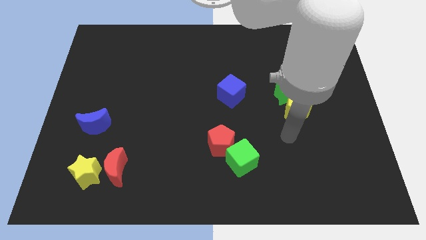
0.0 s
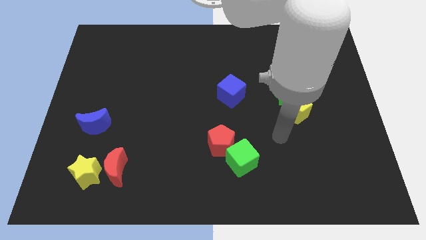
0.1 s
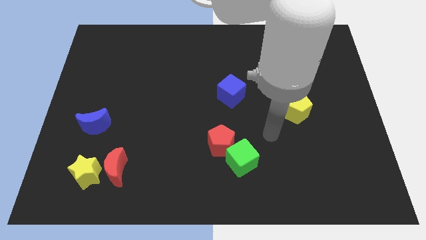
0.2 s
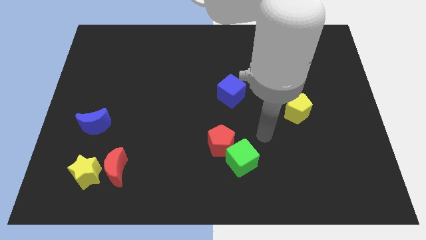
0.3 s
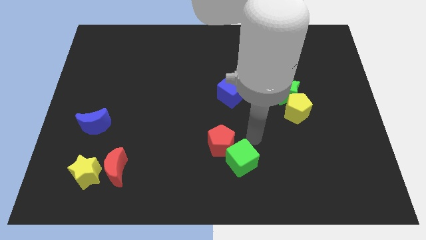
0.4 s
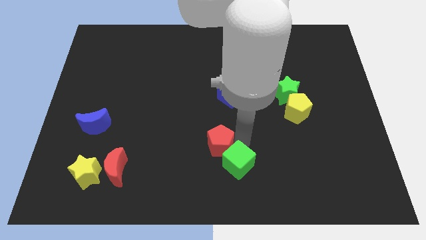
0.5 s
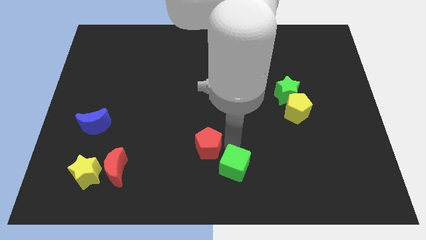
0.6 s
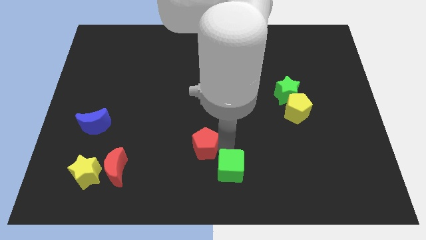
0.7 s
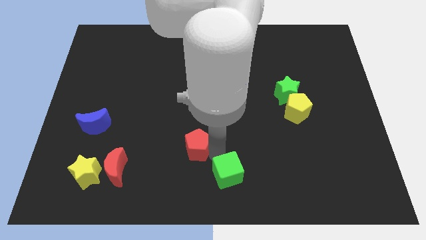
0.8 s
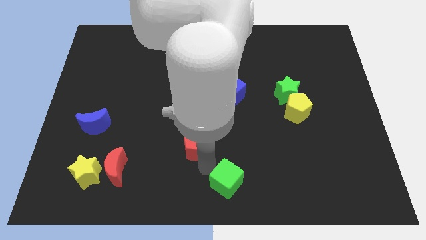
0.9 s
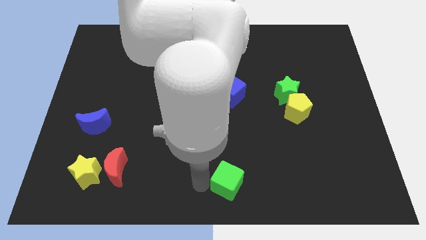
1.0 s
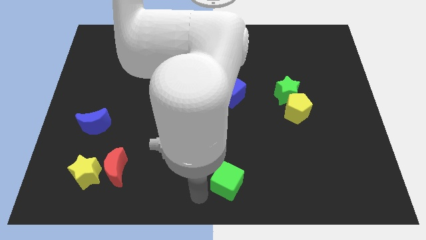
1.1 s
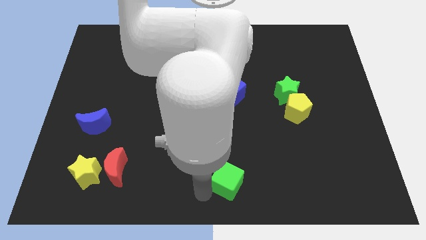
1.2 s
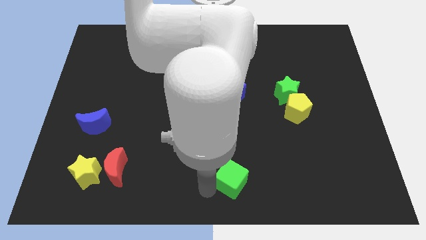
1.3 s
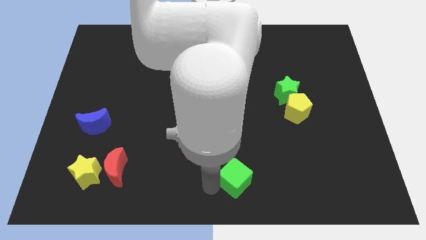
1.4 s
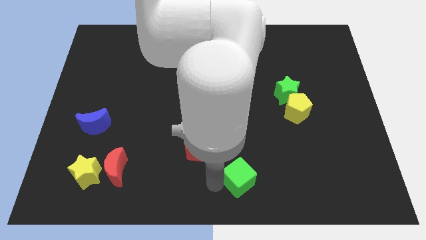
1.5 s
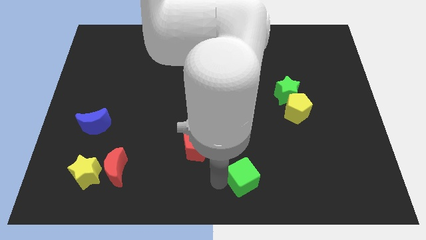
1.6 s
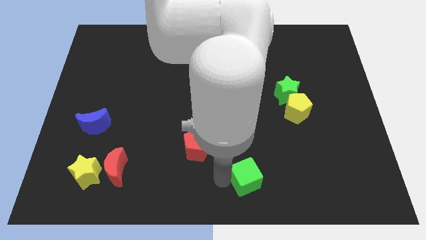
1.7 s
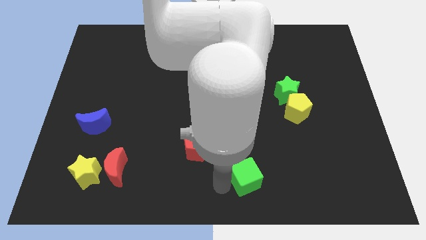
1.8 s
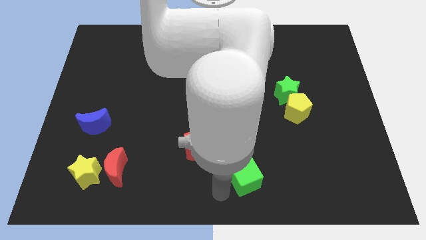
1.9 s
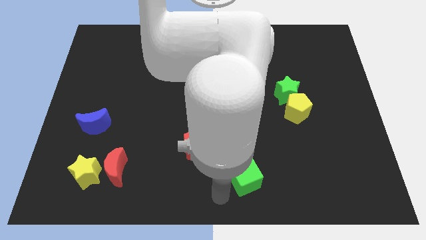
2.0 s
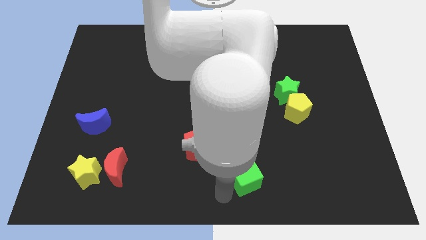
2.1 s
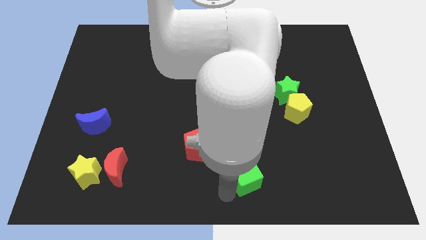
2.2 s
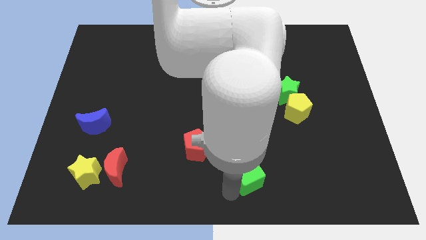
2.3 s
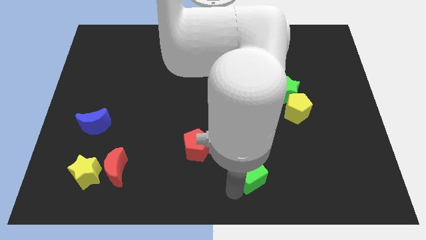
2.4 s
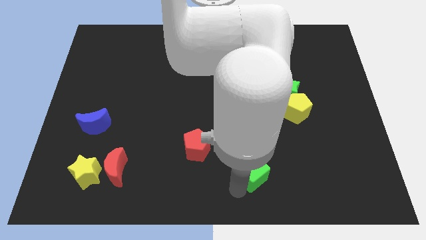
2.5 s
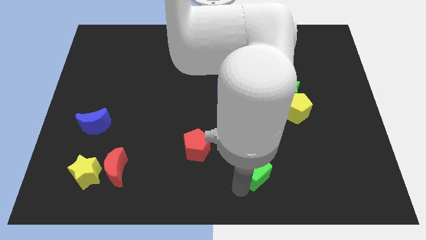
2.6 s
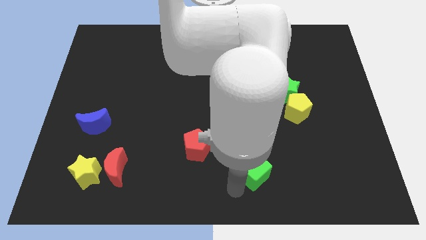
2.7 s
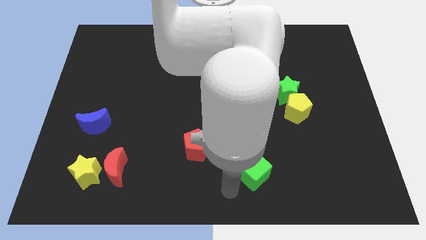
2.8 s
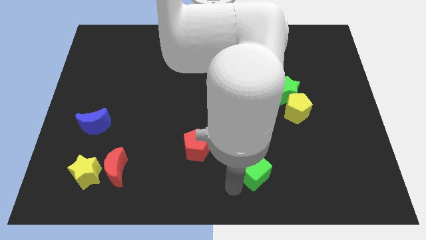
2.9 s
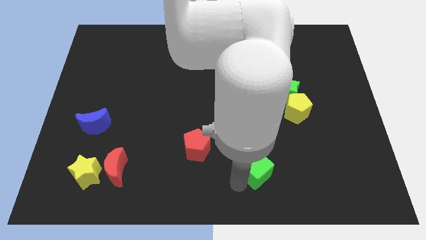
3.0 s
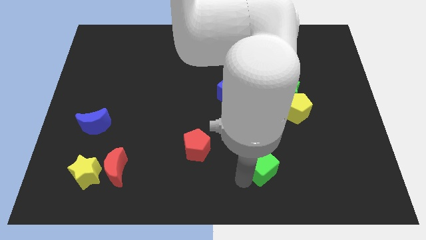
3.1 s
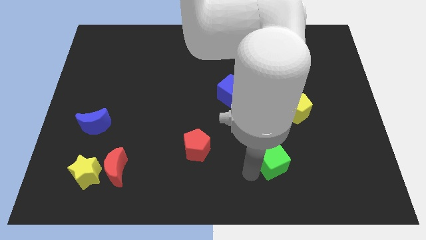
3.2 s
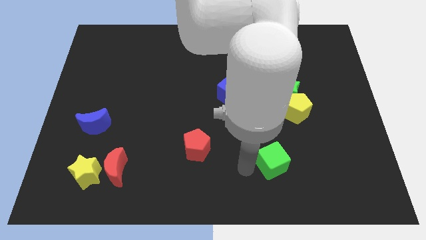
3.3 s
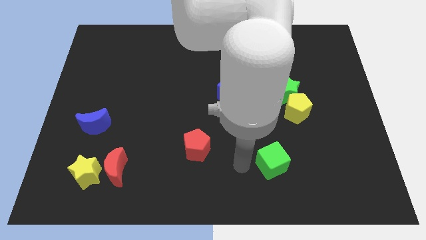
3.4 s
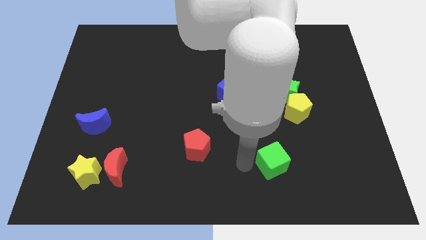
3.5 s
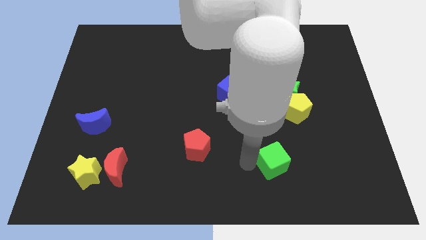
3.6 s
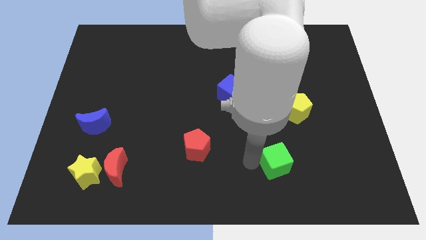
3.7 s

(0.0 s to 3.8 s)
slide the green cube slightly right

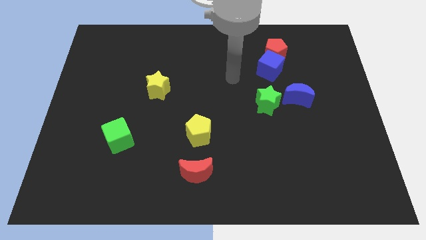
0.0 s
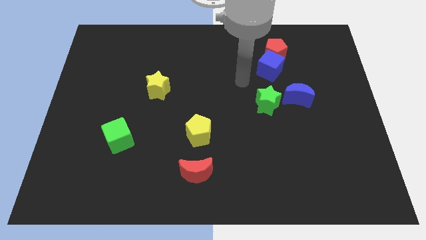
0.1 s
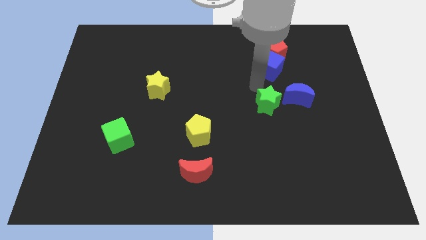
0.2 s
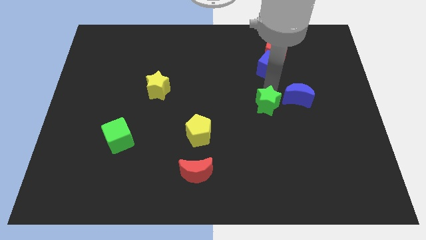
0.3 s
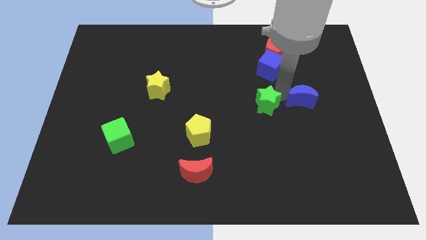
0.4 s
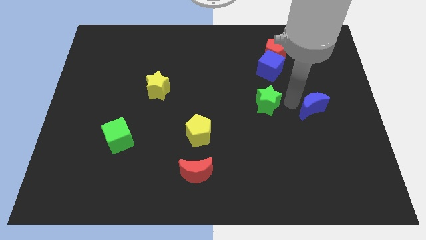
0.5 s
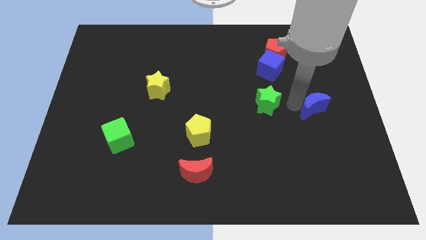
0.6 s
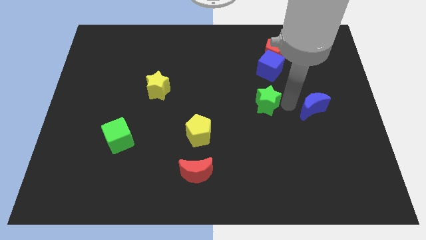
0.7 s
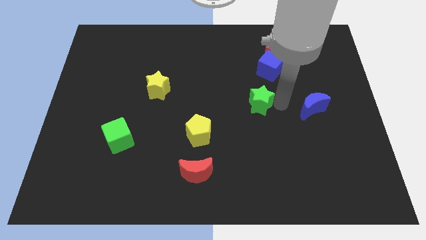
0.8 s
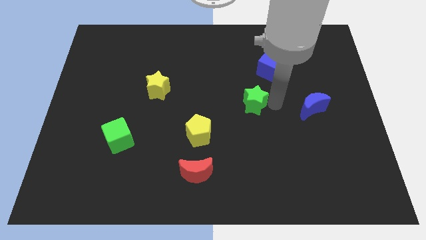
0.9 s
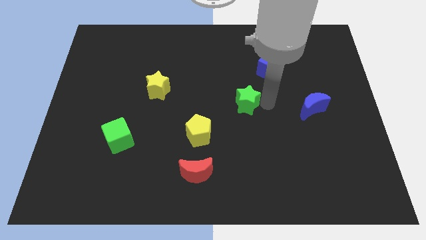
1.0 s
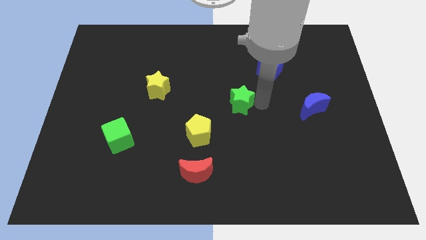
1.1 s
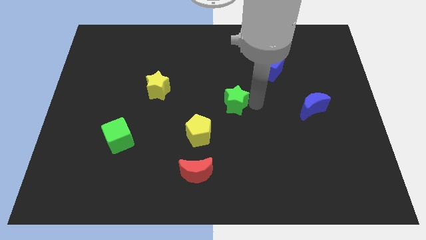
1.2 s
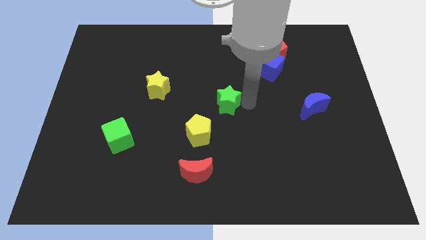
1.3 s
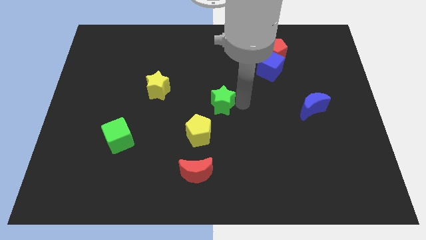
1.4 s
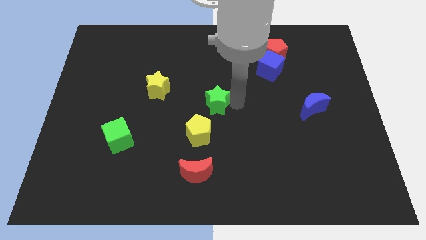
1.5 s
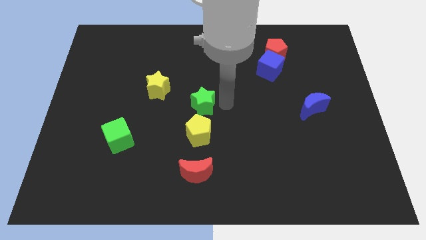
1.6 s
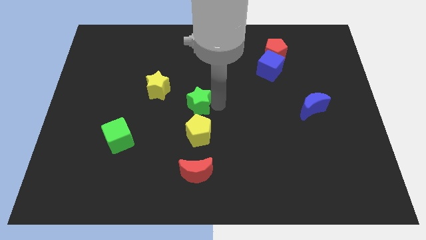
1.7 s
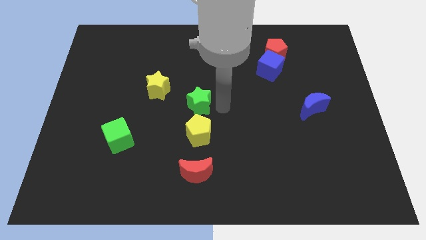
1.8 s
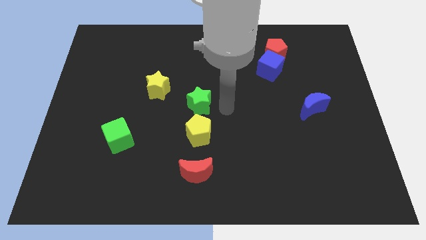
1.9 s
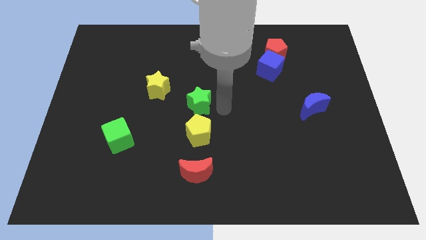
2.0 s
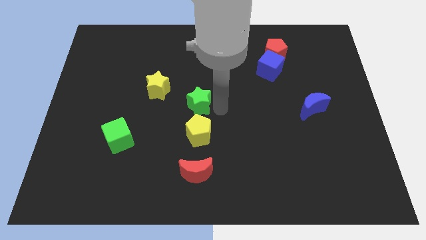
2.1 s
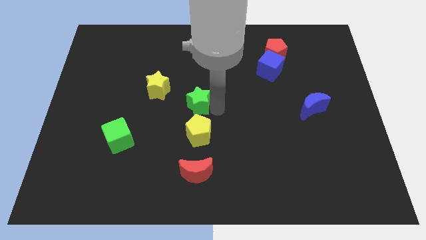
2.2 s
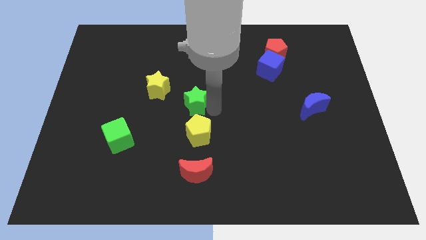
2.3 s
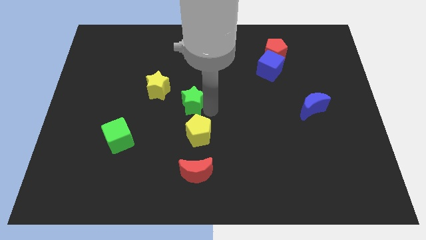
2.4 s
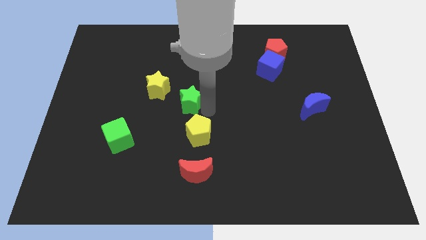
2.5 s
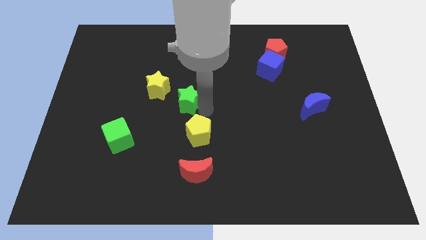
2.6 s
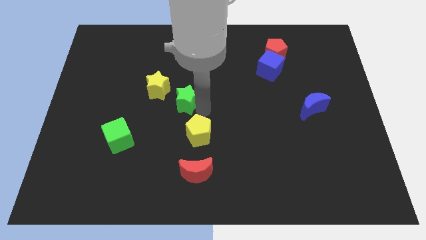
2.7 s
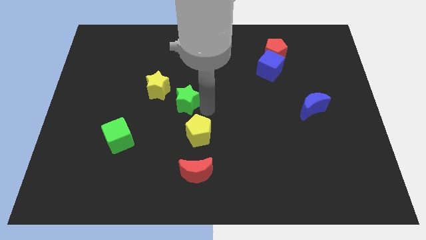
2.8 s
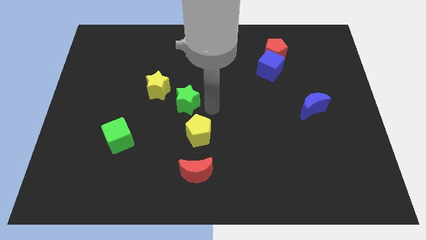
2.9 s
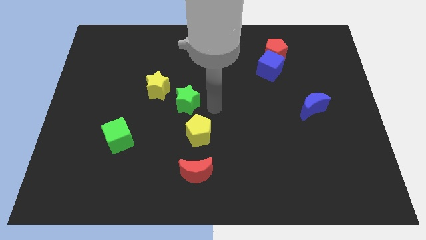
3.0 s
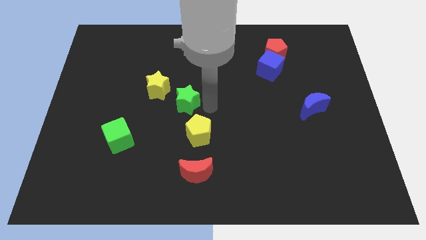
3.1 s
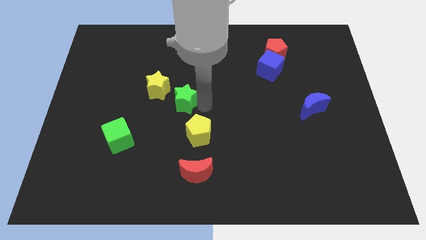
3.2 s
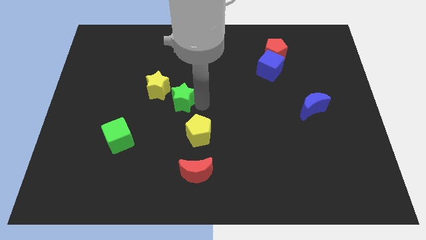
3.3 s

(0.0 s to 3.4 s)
slide the green star left

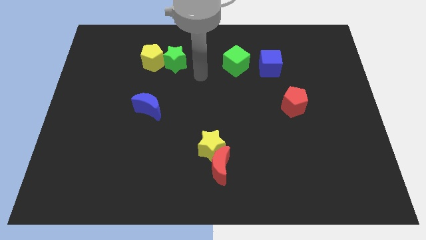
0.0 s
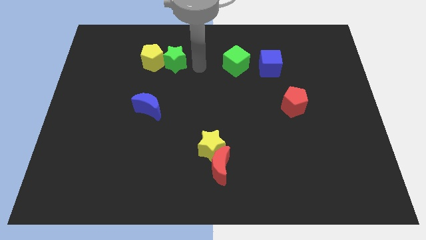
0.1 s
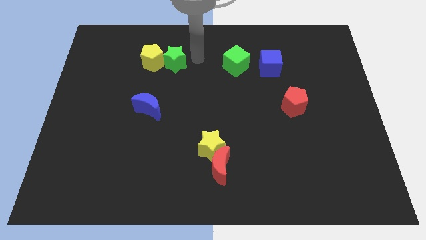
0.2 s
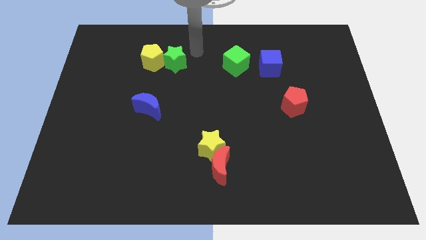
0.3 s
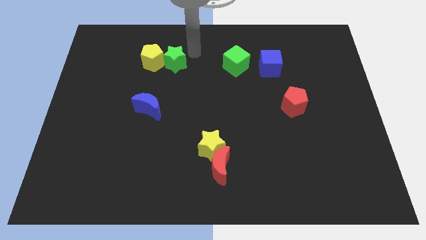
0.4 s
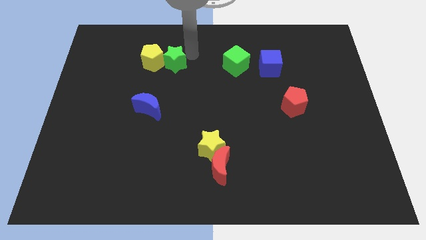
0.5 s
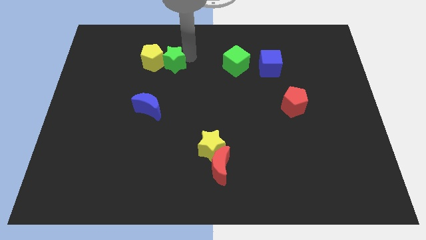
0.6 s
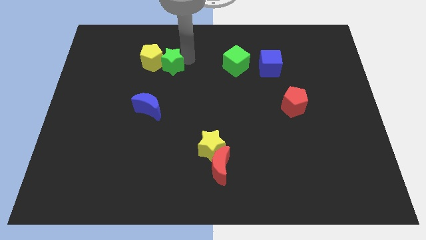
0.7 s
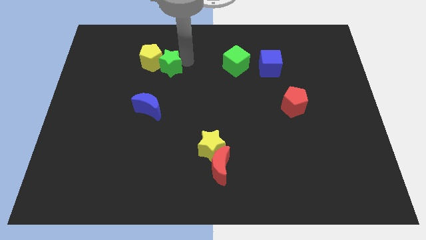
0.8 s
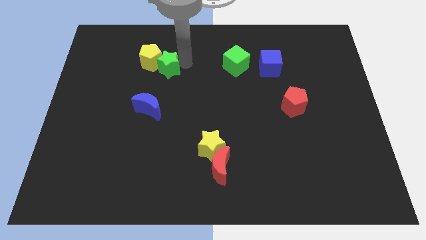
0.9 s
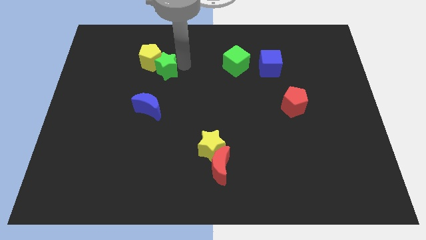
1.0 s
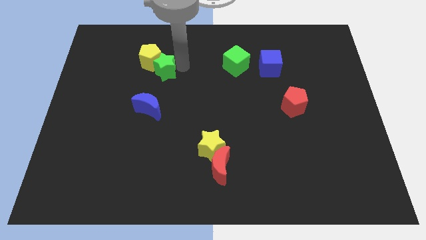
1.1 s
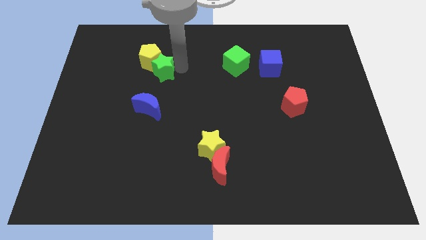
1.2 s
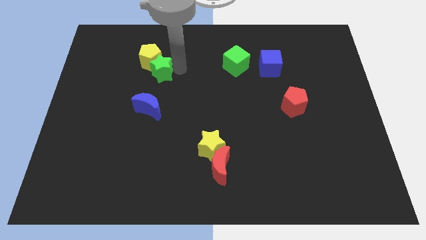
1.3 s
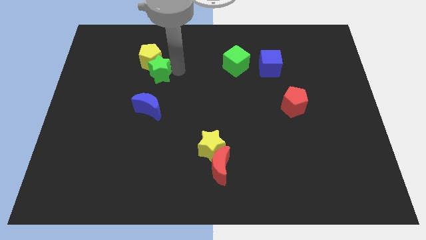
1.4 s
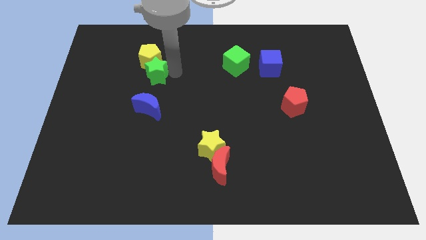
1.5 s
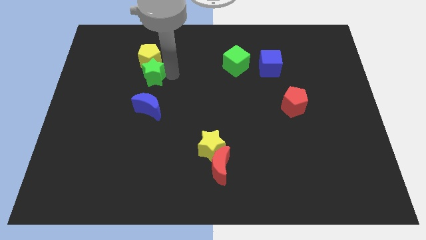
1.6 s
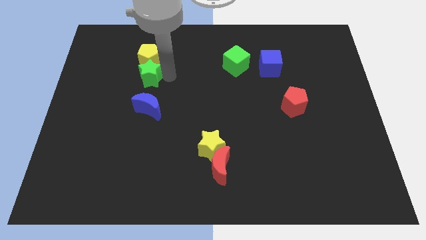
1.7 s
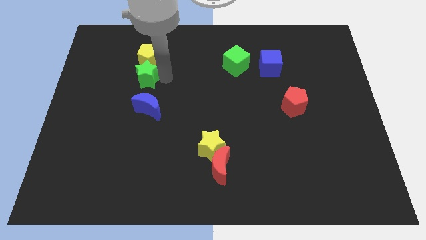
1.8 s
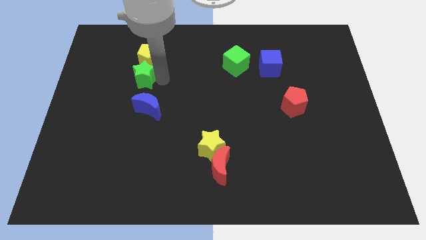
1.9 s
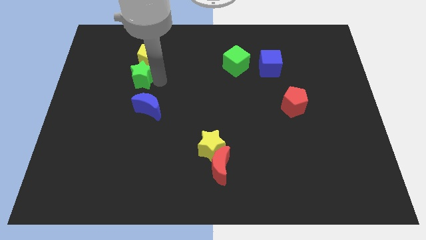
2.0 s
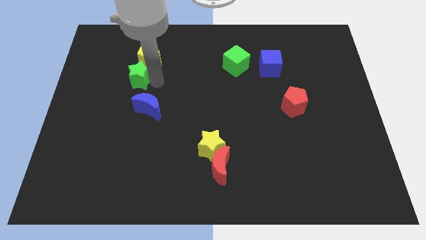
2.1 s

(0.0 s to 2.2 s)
slide the green star slightly to the left
